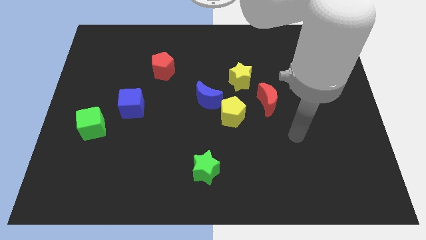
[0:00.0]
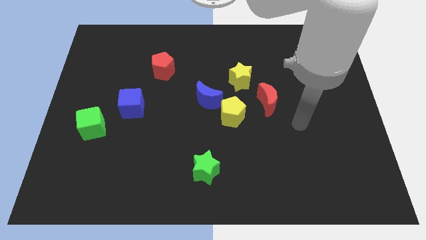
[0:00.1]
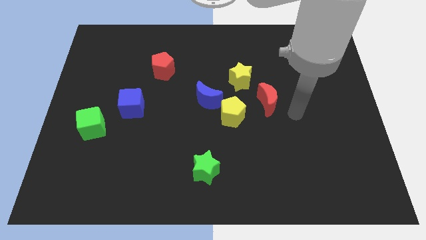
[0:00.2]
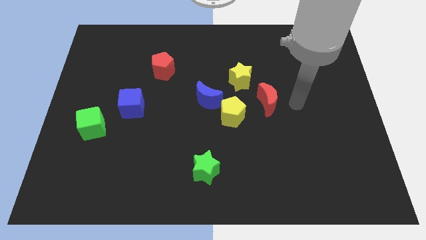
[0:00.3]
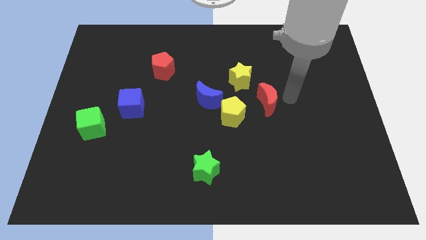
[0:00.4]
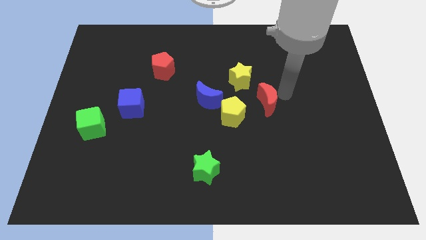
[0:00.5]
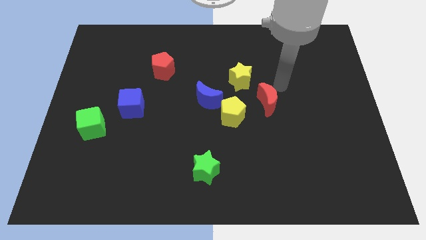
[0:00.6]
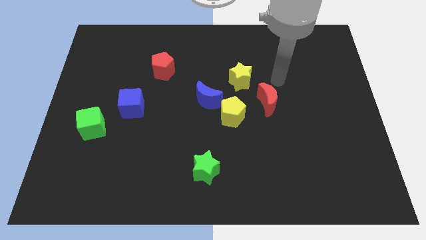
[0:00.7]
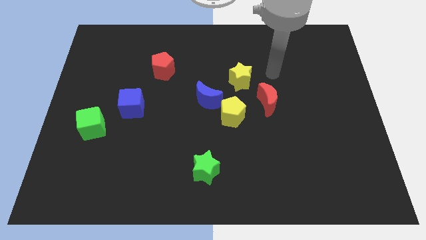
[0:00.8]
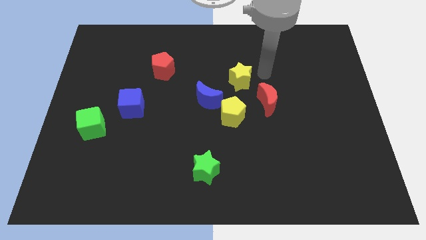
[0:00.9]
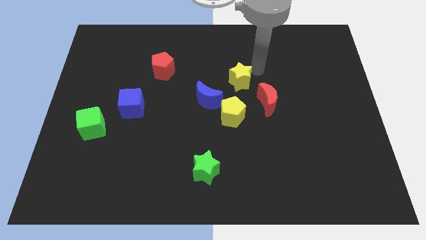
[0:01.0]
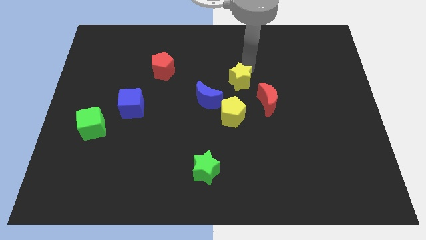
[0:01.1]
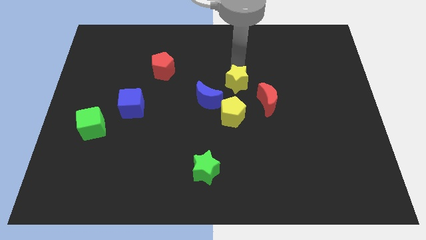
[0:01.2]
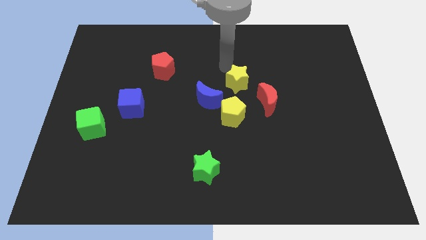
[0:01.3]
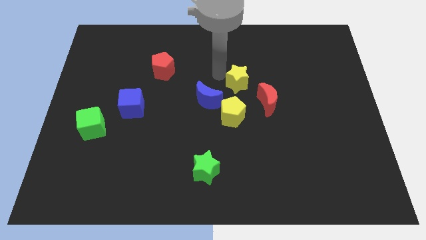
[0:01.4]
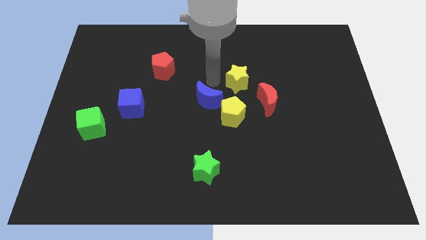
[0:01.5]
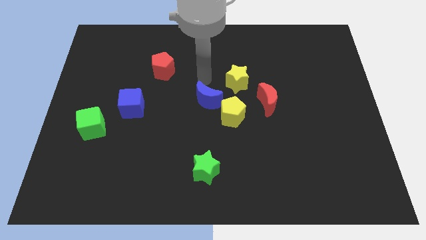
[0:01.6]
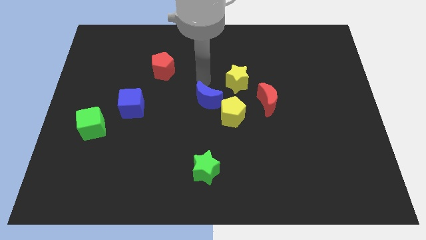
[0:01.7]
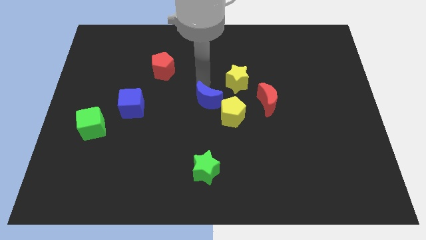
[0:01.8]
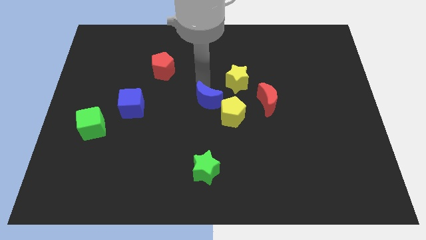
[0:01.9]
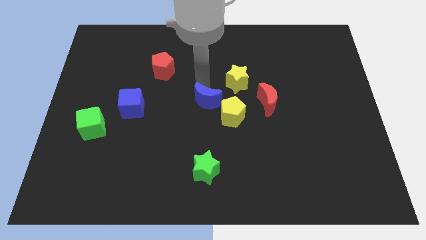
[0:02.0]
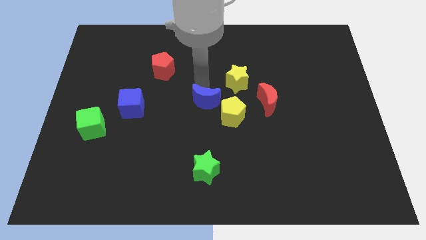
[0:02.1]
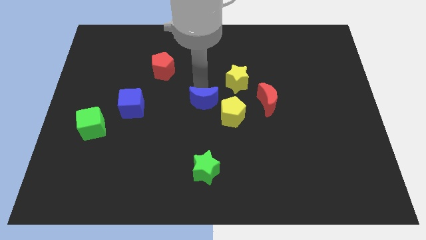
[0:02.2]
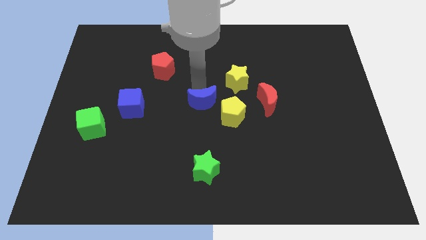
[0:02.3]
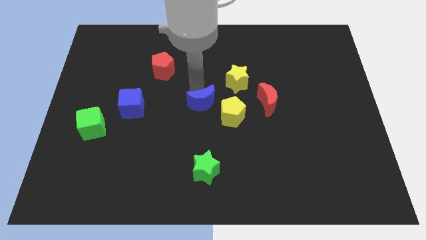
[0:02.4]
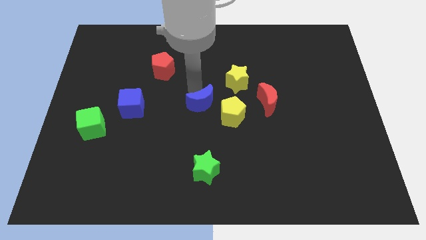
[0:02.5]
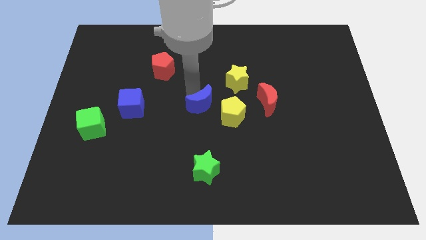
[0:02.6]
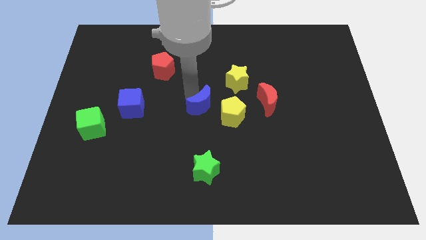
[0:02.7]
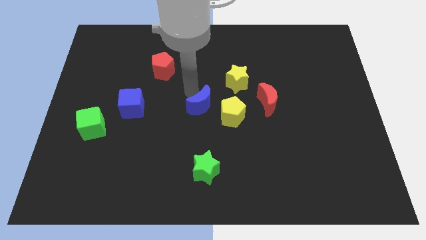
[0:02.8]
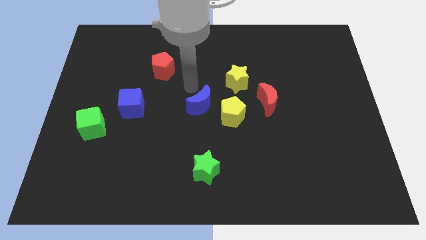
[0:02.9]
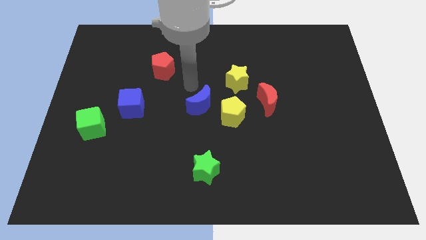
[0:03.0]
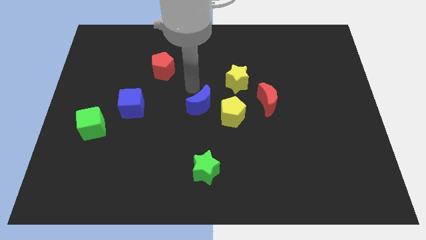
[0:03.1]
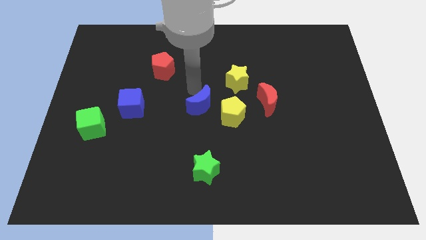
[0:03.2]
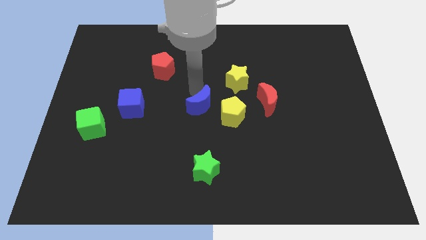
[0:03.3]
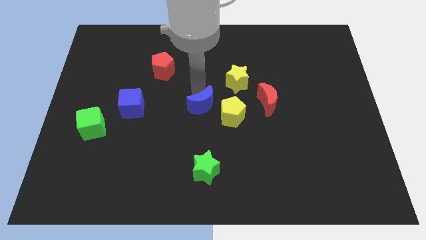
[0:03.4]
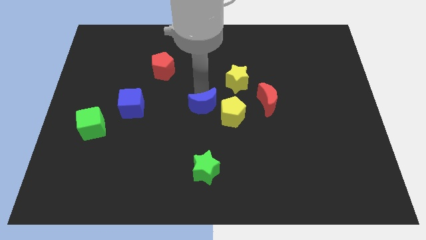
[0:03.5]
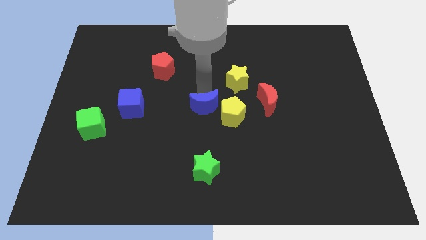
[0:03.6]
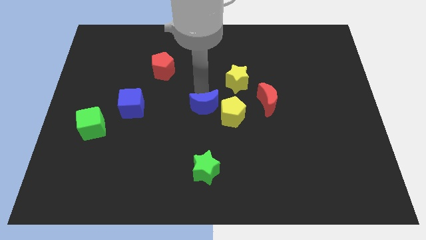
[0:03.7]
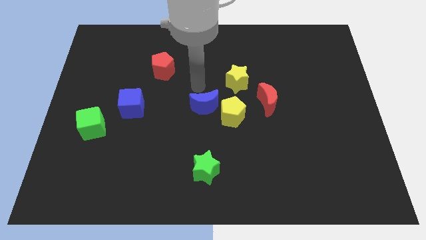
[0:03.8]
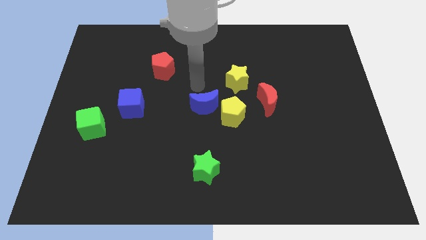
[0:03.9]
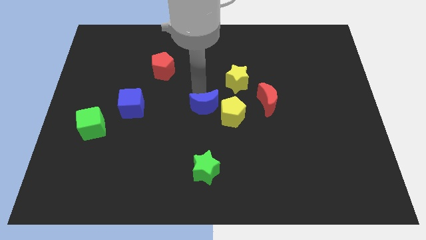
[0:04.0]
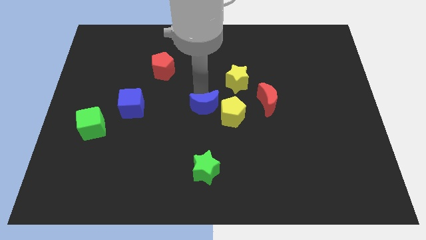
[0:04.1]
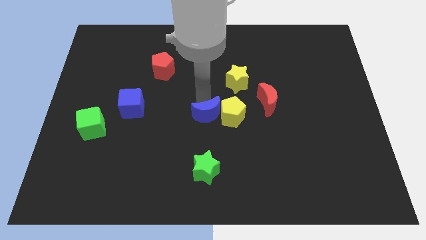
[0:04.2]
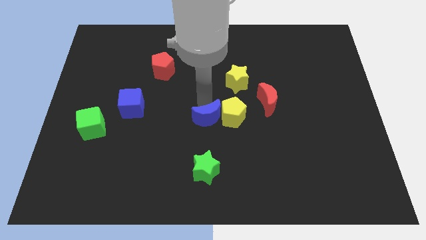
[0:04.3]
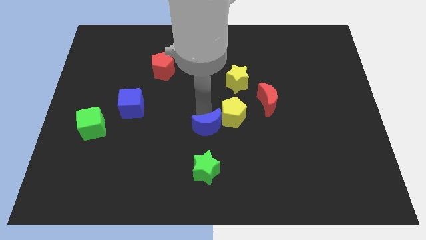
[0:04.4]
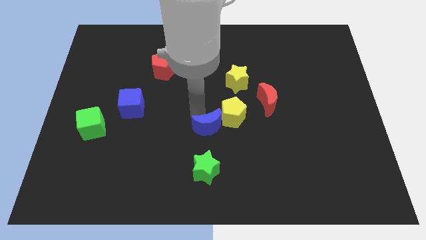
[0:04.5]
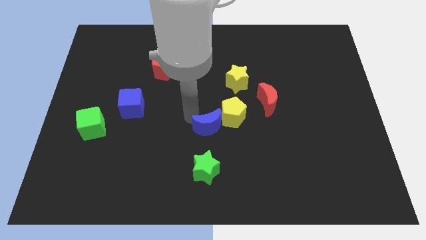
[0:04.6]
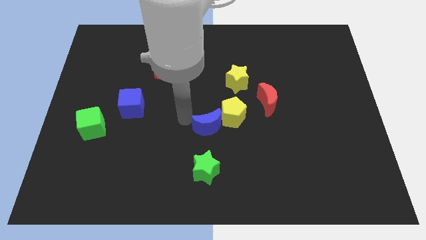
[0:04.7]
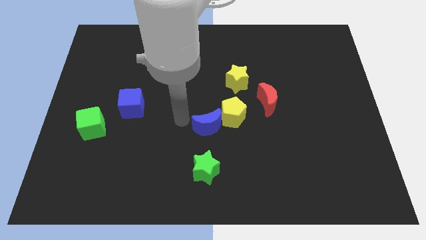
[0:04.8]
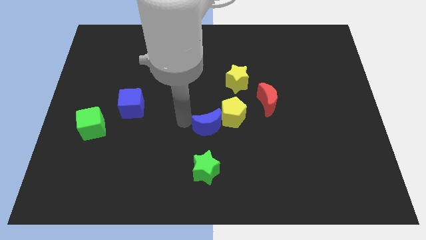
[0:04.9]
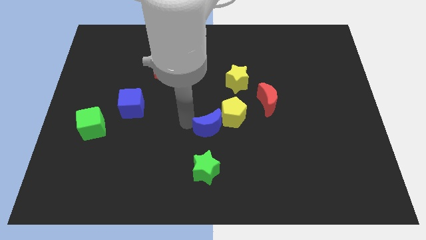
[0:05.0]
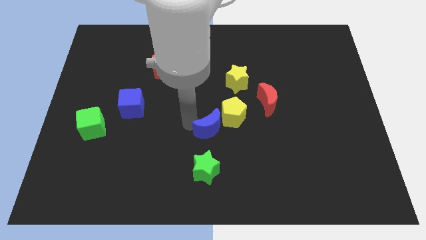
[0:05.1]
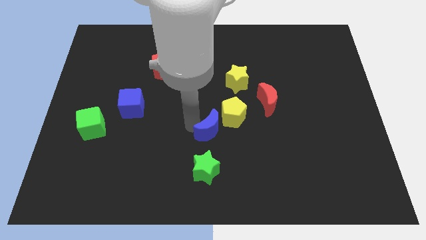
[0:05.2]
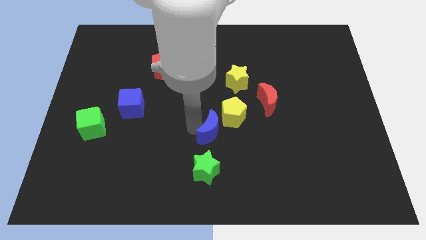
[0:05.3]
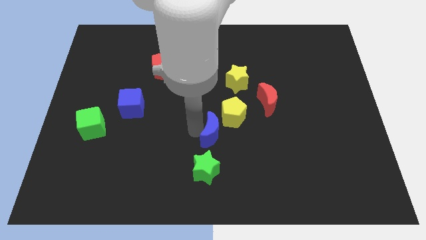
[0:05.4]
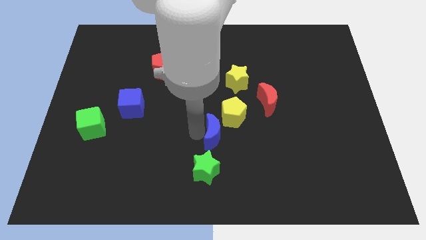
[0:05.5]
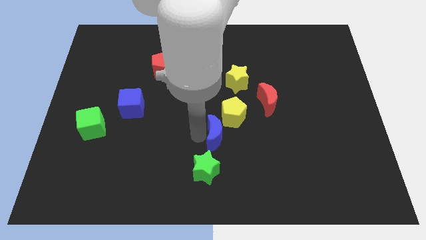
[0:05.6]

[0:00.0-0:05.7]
slightly push the blue moon downwards and to the right

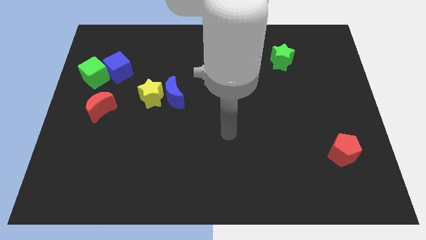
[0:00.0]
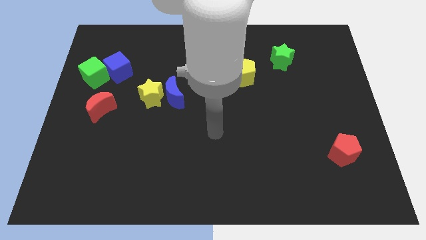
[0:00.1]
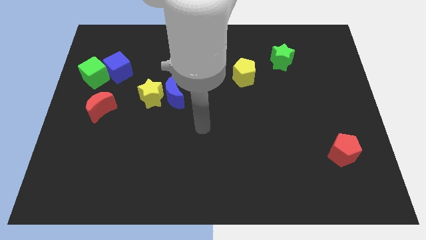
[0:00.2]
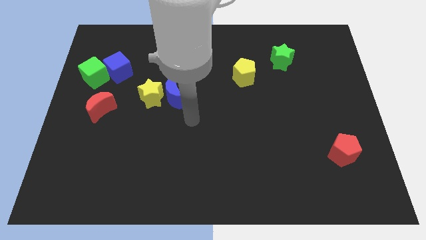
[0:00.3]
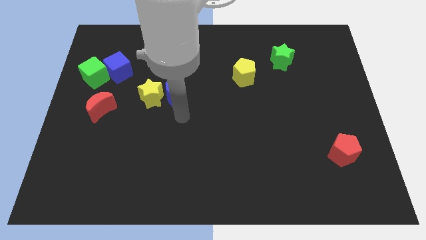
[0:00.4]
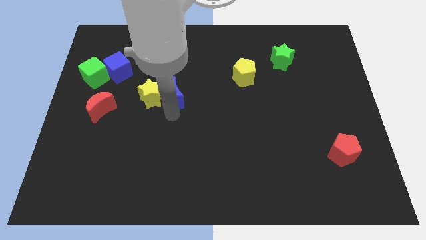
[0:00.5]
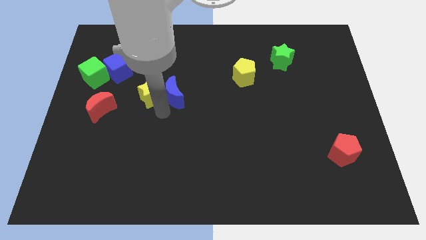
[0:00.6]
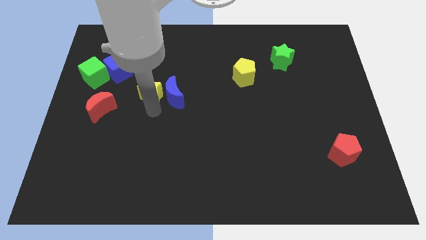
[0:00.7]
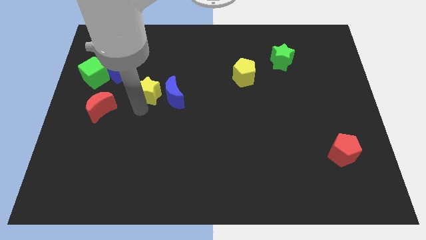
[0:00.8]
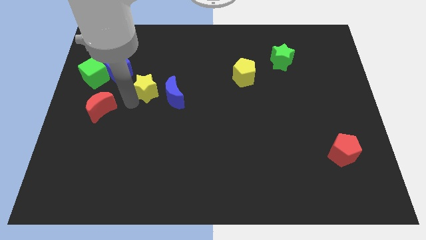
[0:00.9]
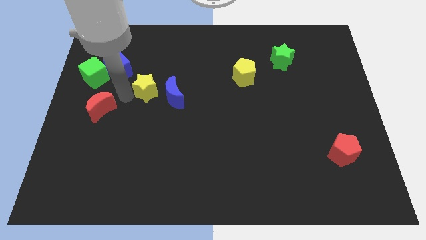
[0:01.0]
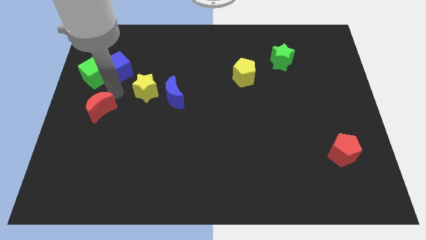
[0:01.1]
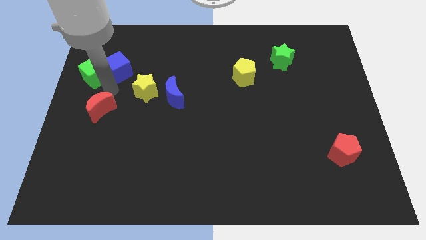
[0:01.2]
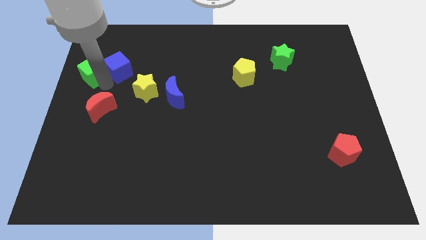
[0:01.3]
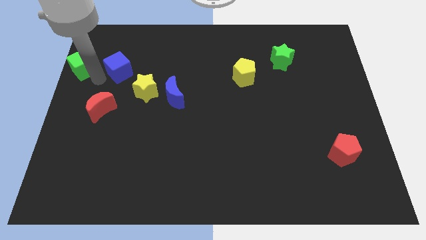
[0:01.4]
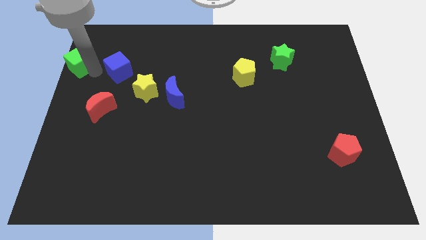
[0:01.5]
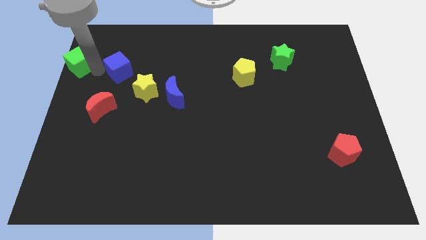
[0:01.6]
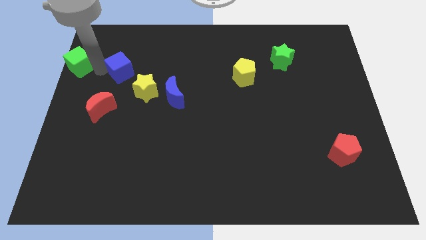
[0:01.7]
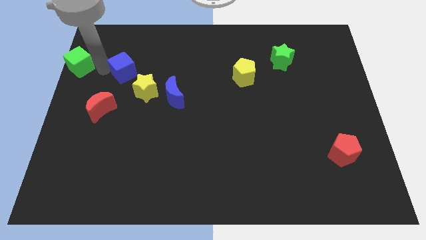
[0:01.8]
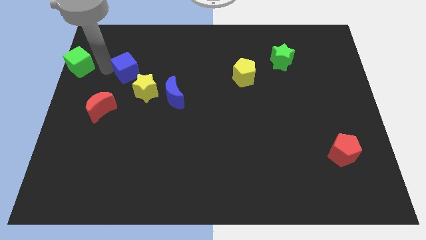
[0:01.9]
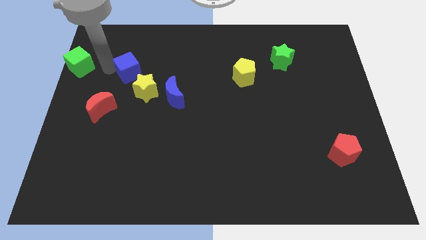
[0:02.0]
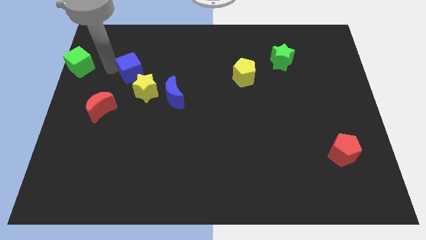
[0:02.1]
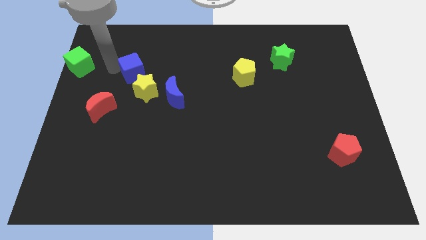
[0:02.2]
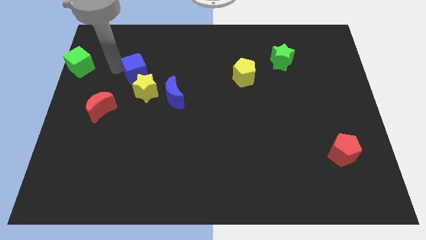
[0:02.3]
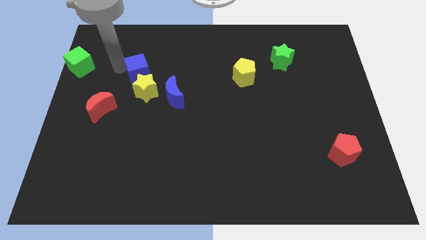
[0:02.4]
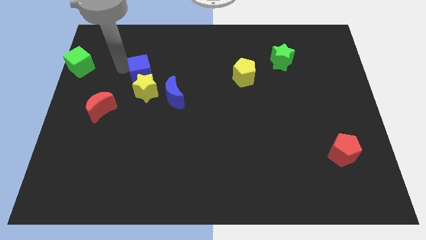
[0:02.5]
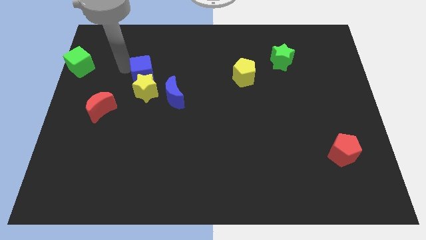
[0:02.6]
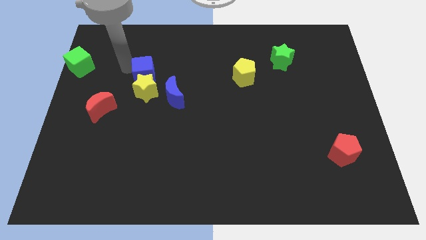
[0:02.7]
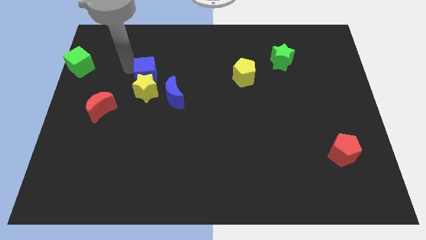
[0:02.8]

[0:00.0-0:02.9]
slightly push the blue cube right
